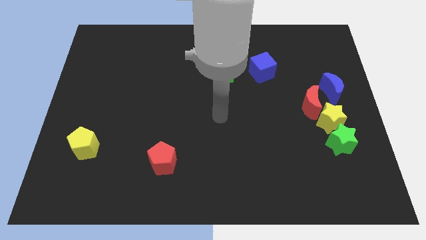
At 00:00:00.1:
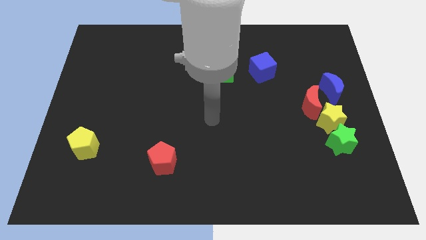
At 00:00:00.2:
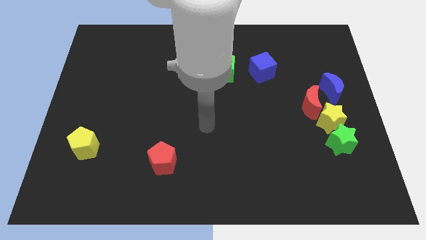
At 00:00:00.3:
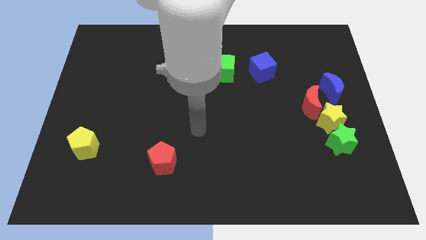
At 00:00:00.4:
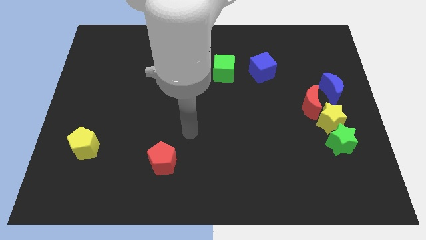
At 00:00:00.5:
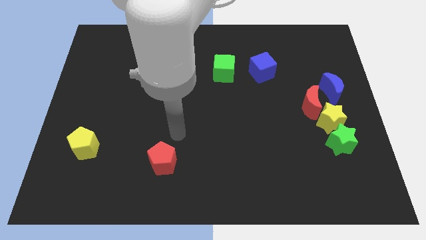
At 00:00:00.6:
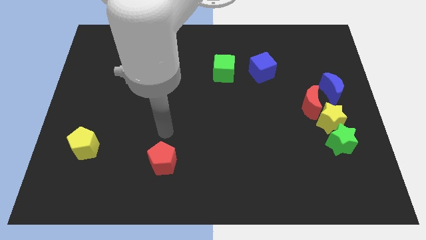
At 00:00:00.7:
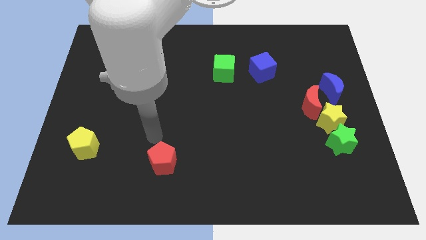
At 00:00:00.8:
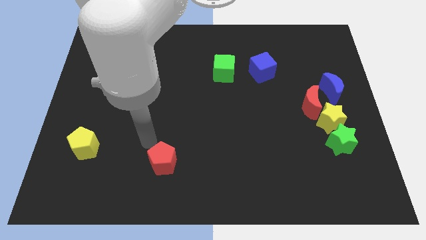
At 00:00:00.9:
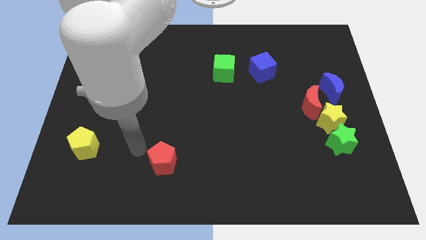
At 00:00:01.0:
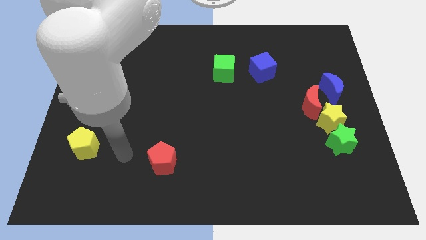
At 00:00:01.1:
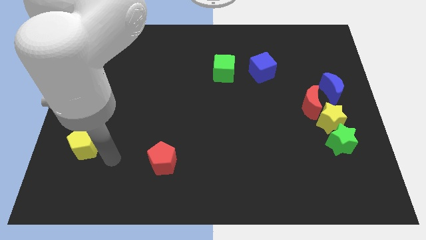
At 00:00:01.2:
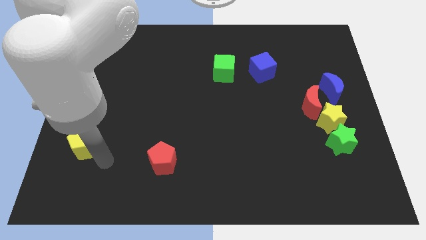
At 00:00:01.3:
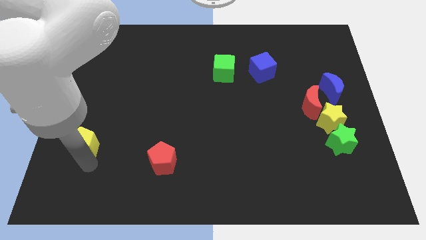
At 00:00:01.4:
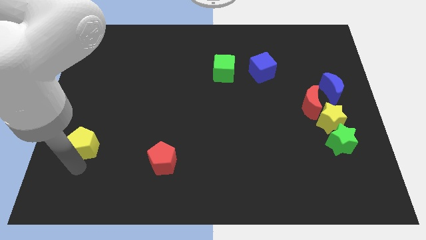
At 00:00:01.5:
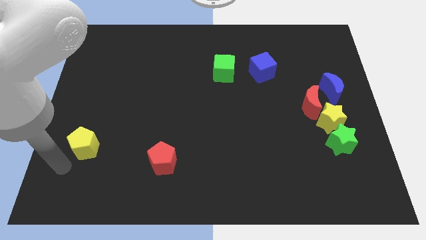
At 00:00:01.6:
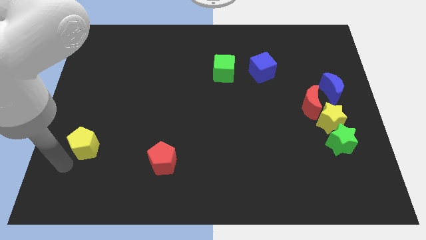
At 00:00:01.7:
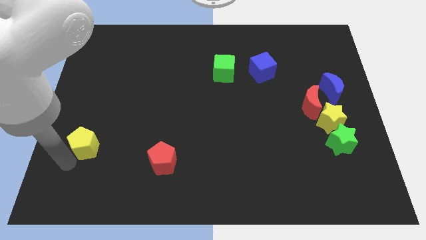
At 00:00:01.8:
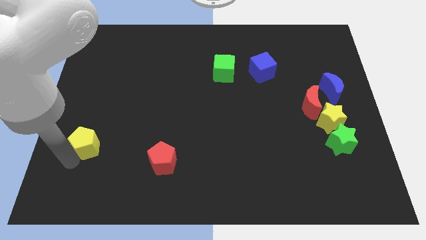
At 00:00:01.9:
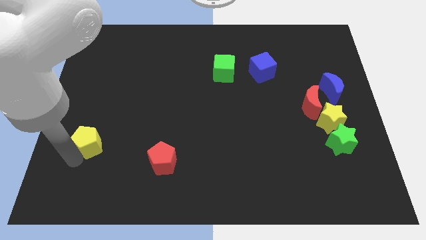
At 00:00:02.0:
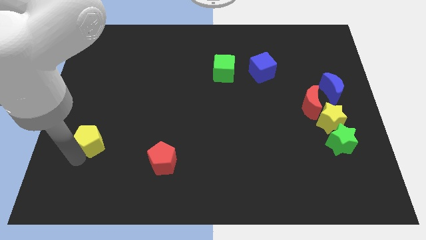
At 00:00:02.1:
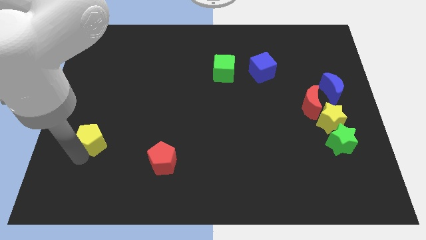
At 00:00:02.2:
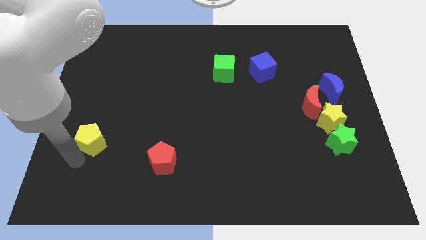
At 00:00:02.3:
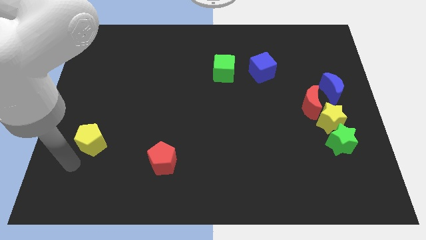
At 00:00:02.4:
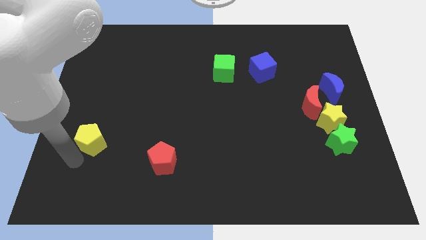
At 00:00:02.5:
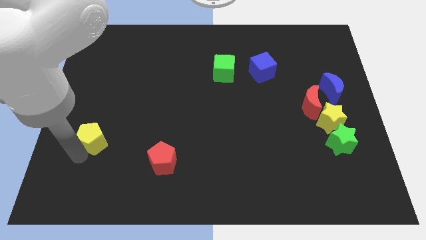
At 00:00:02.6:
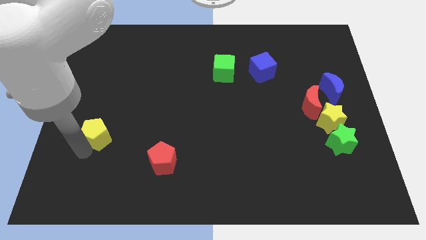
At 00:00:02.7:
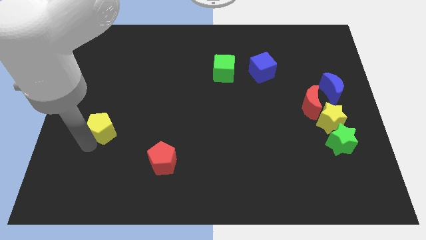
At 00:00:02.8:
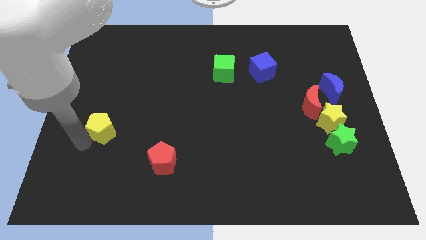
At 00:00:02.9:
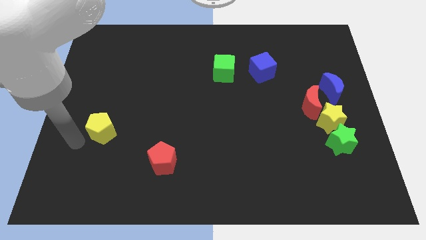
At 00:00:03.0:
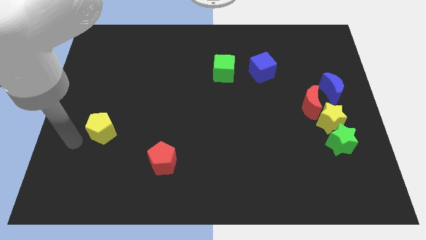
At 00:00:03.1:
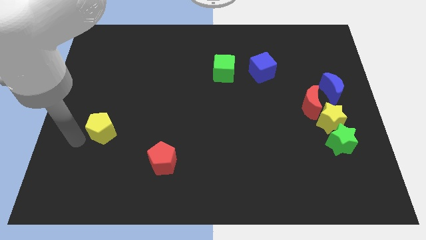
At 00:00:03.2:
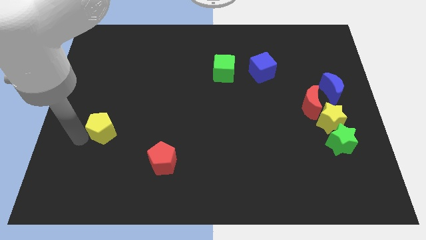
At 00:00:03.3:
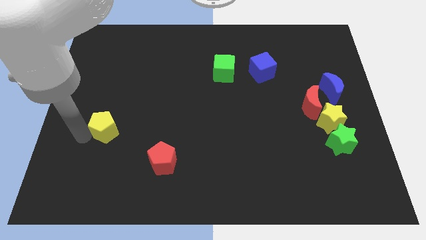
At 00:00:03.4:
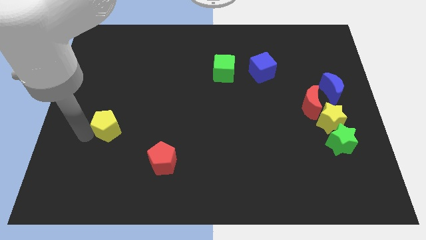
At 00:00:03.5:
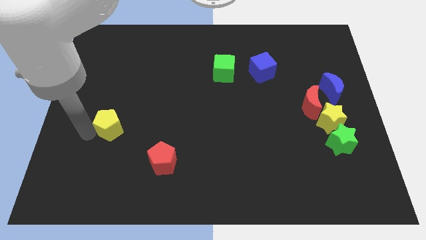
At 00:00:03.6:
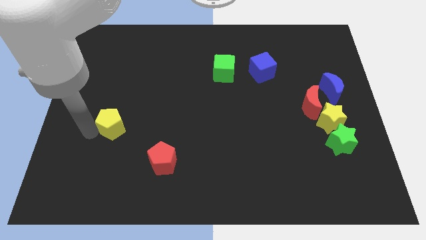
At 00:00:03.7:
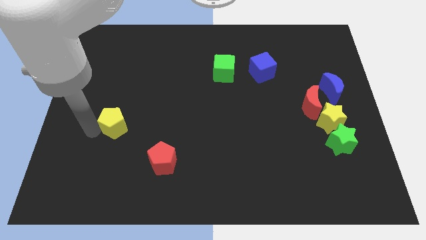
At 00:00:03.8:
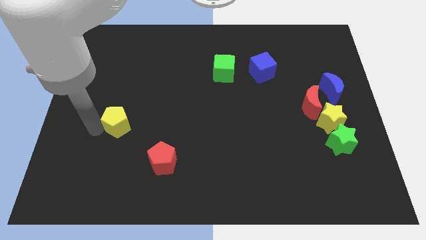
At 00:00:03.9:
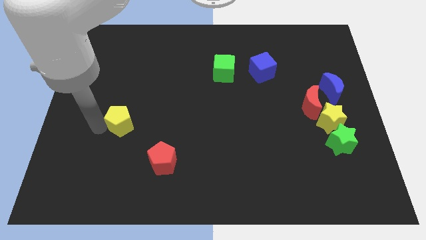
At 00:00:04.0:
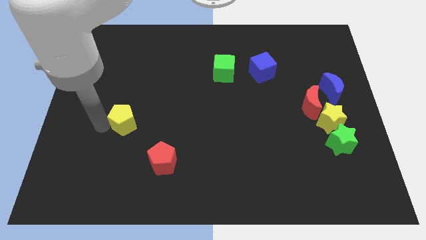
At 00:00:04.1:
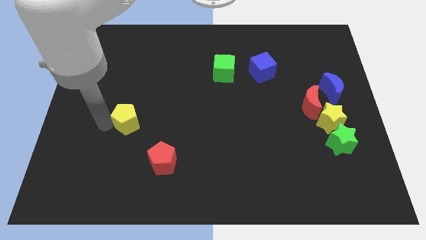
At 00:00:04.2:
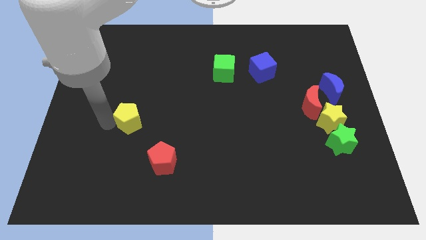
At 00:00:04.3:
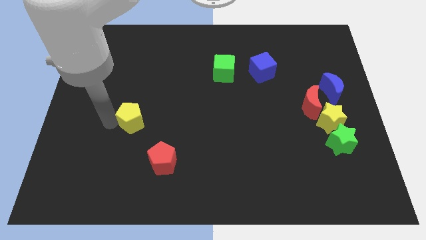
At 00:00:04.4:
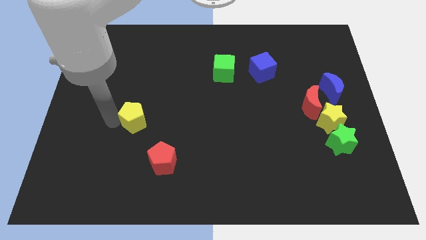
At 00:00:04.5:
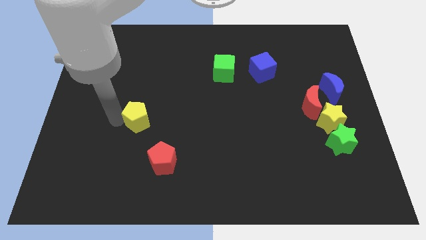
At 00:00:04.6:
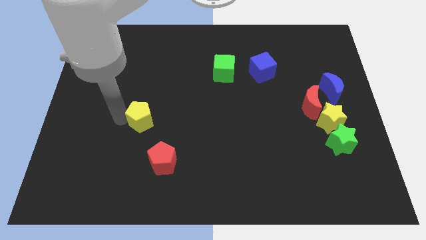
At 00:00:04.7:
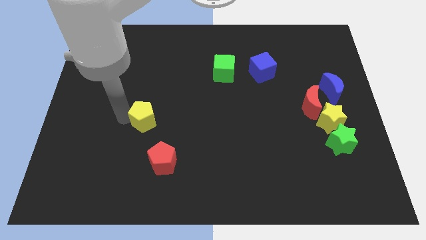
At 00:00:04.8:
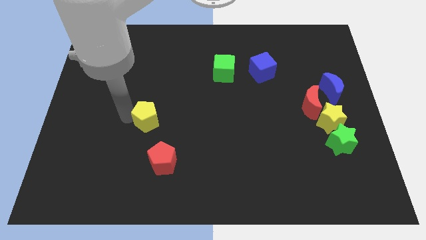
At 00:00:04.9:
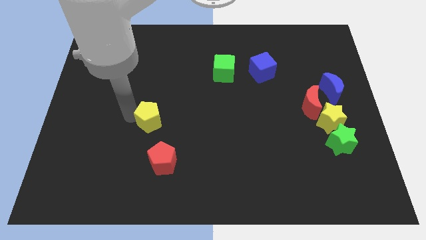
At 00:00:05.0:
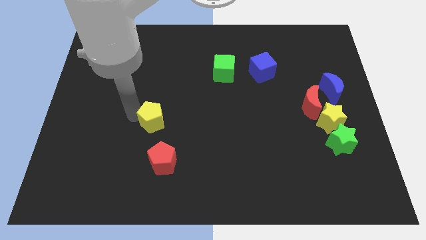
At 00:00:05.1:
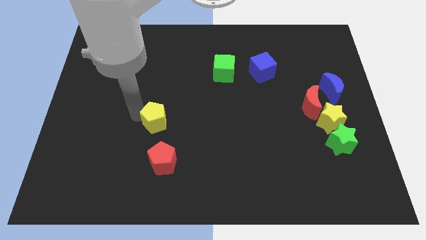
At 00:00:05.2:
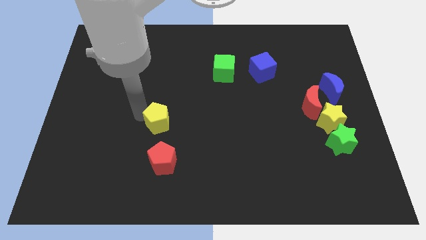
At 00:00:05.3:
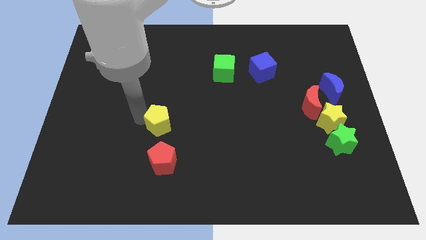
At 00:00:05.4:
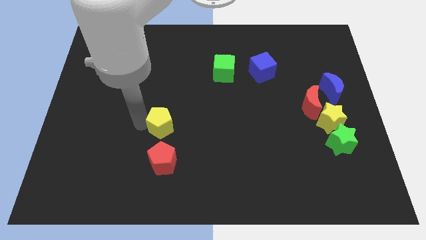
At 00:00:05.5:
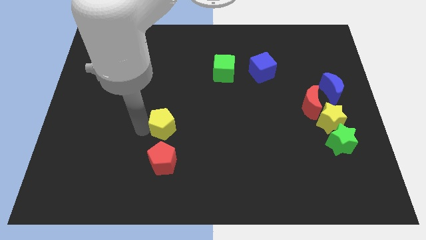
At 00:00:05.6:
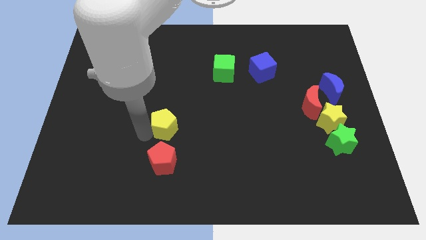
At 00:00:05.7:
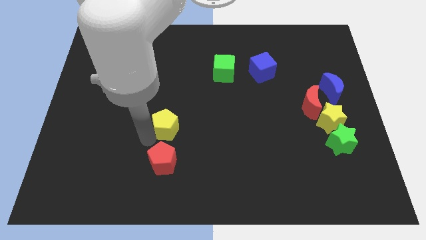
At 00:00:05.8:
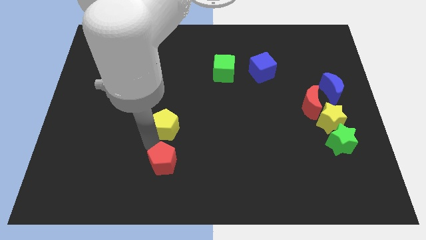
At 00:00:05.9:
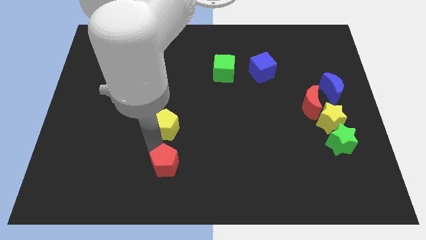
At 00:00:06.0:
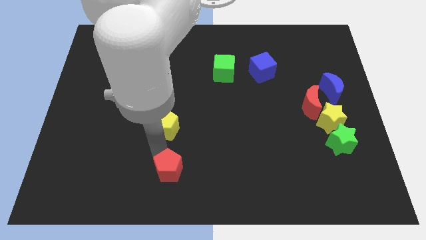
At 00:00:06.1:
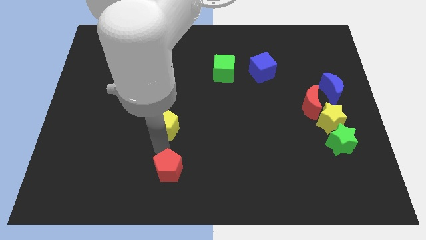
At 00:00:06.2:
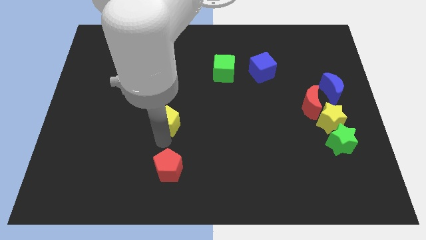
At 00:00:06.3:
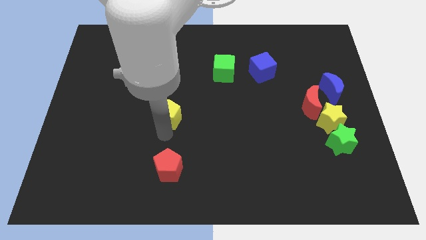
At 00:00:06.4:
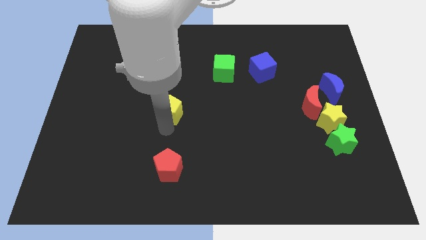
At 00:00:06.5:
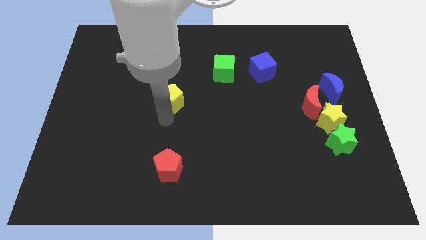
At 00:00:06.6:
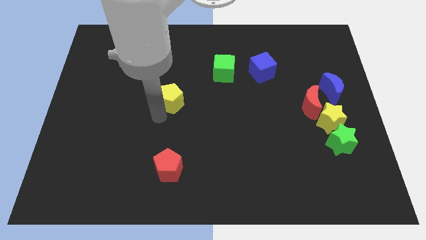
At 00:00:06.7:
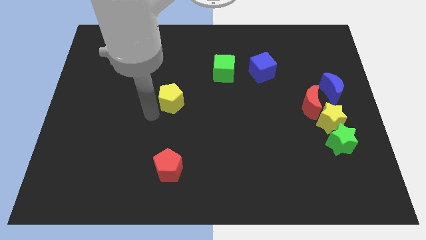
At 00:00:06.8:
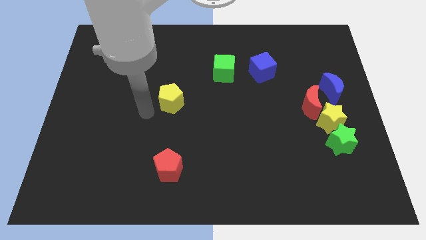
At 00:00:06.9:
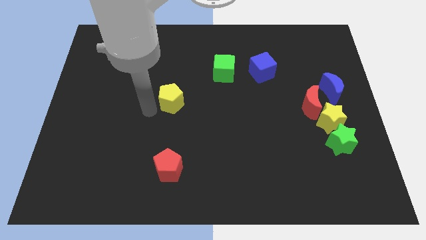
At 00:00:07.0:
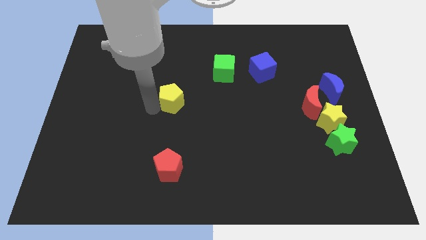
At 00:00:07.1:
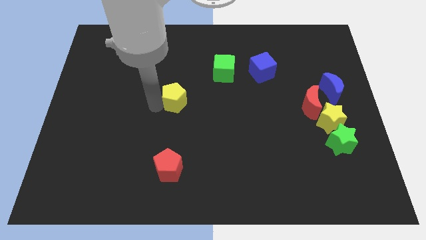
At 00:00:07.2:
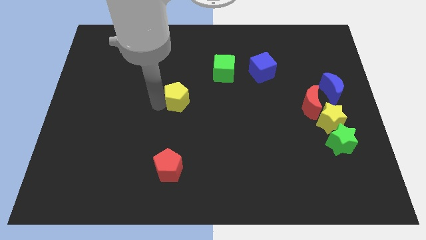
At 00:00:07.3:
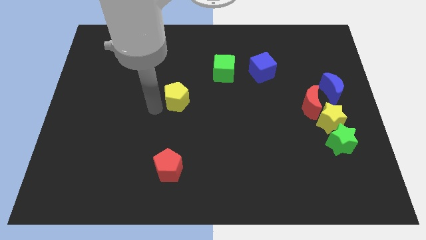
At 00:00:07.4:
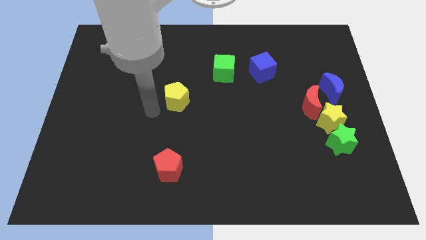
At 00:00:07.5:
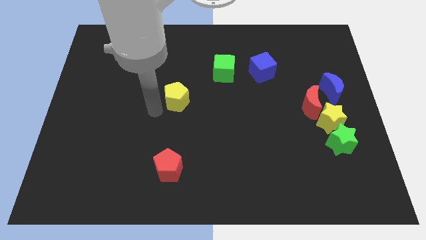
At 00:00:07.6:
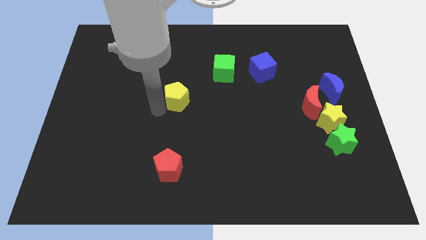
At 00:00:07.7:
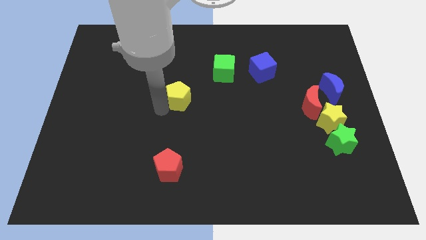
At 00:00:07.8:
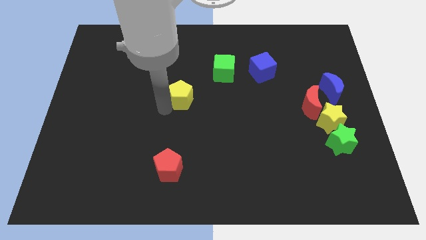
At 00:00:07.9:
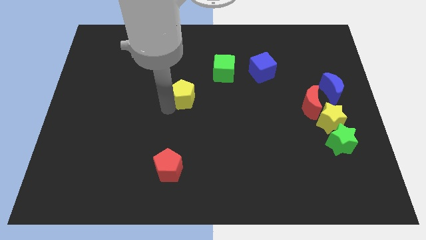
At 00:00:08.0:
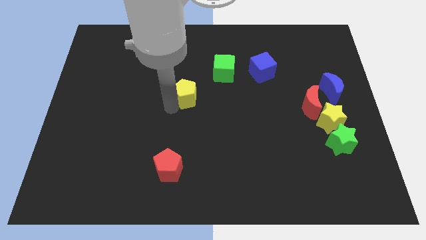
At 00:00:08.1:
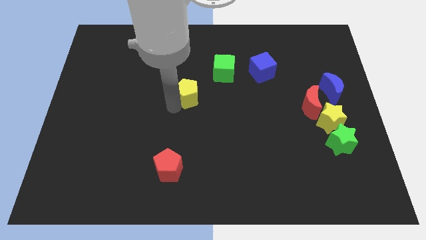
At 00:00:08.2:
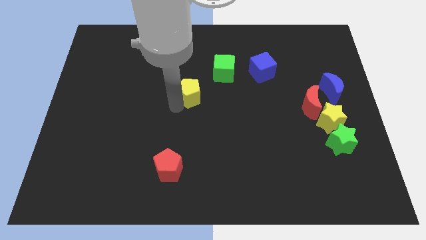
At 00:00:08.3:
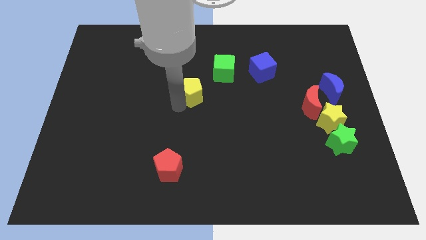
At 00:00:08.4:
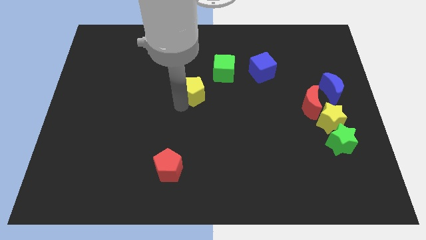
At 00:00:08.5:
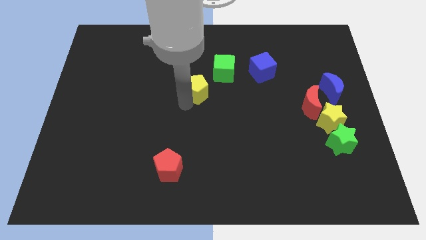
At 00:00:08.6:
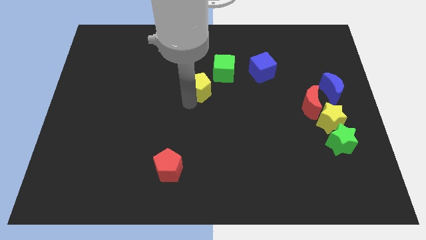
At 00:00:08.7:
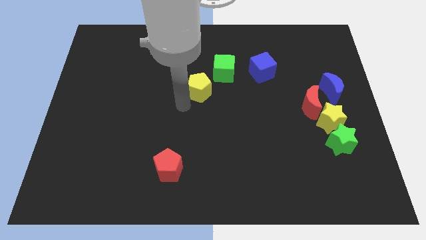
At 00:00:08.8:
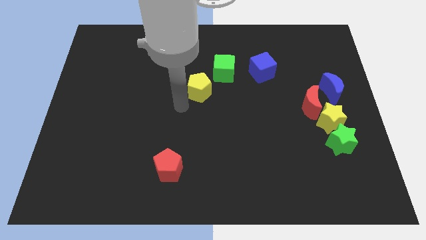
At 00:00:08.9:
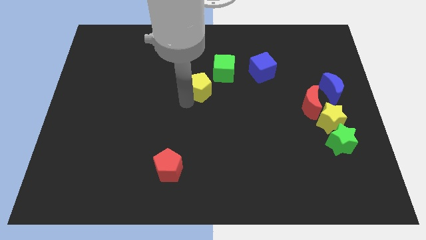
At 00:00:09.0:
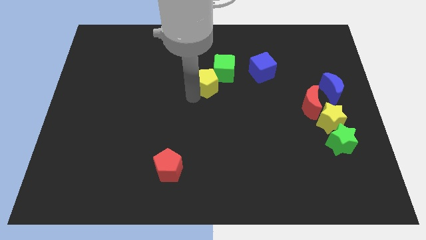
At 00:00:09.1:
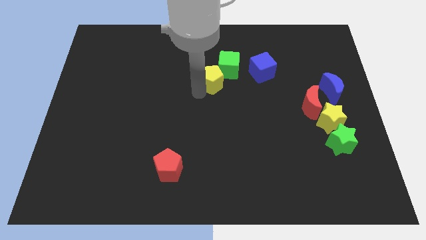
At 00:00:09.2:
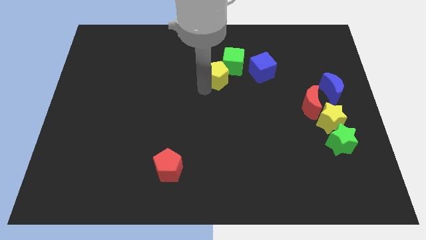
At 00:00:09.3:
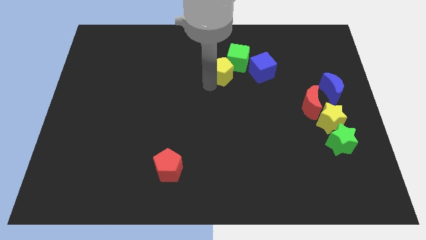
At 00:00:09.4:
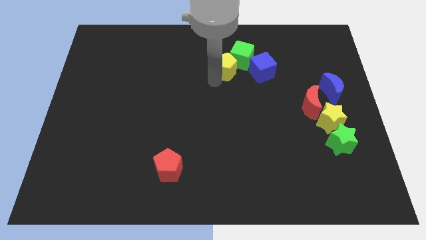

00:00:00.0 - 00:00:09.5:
put the yellow pentagon next to the green cube
